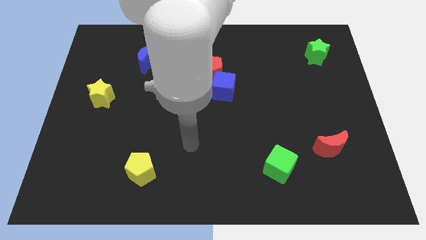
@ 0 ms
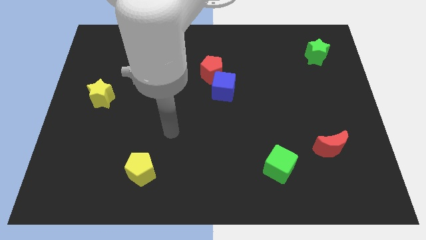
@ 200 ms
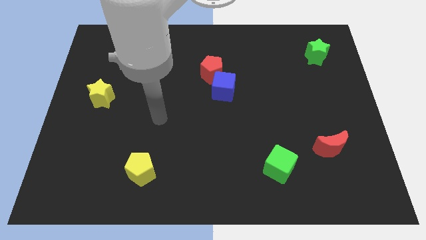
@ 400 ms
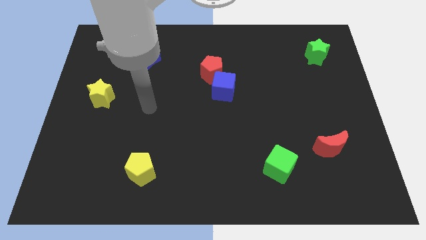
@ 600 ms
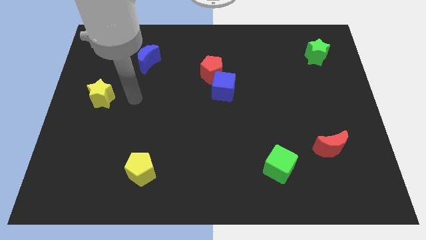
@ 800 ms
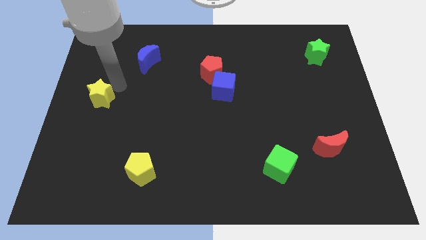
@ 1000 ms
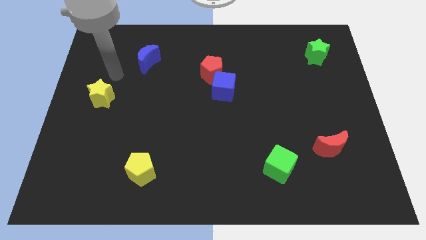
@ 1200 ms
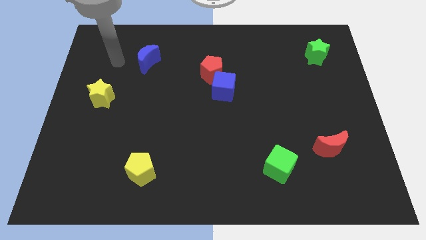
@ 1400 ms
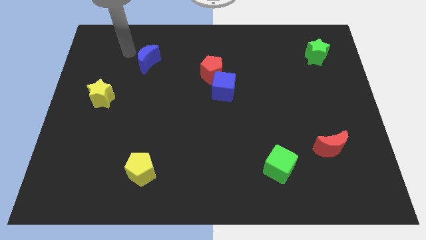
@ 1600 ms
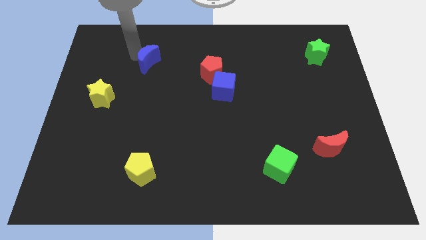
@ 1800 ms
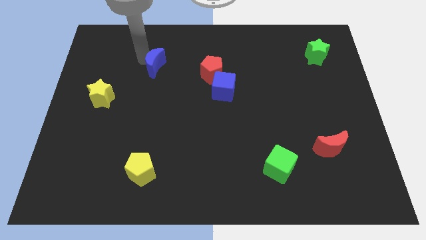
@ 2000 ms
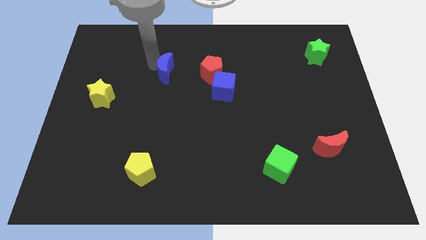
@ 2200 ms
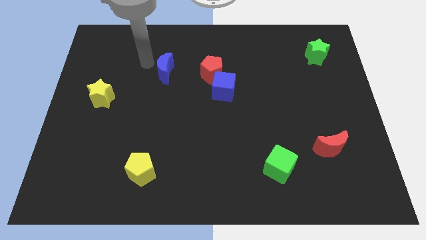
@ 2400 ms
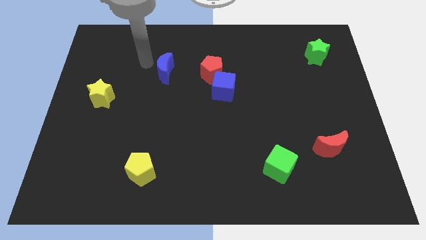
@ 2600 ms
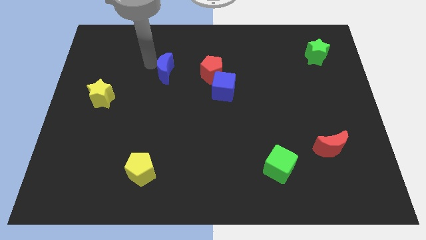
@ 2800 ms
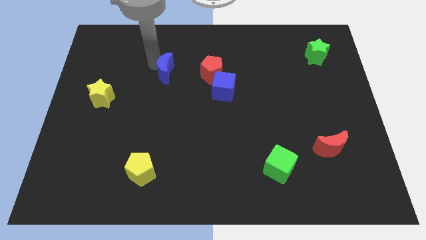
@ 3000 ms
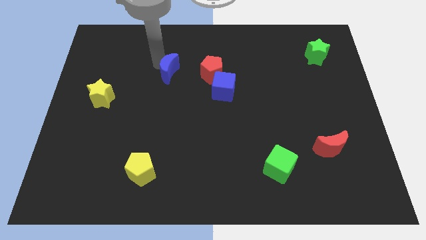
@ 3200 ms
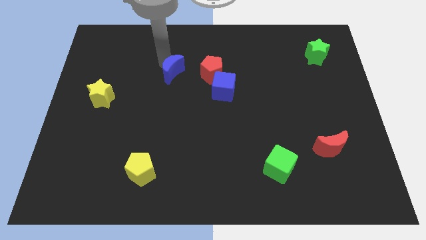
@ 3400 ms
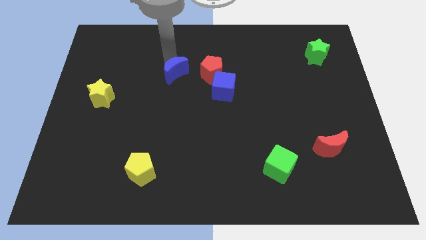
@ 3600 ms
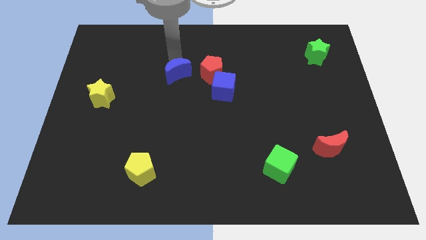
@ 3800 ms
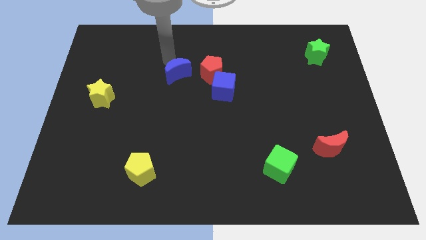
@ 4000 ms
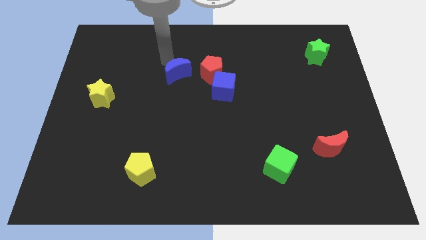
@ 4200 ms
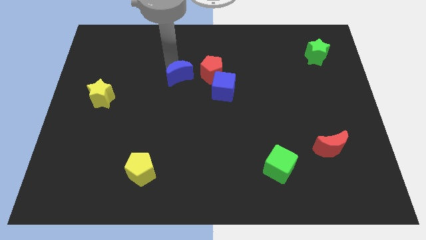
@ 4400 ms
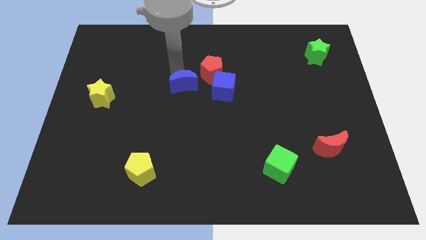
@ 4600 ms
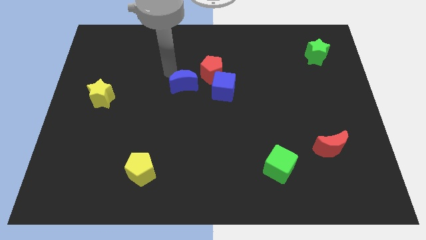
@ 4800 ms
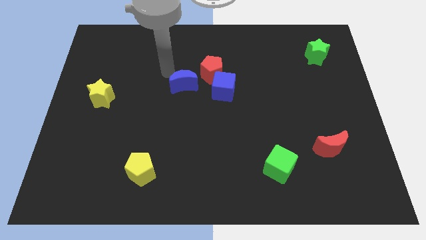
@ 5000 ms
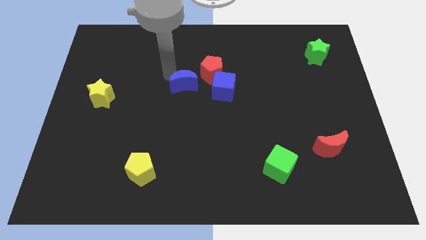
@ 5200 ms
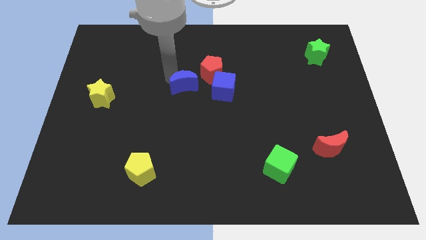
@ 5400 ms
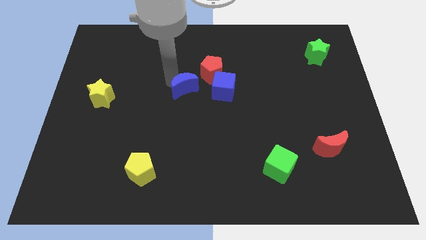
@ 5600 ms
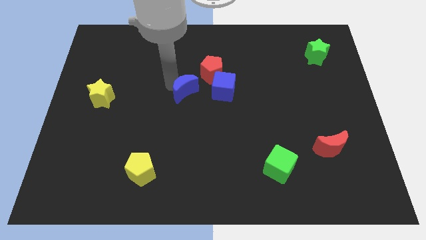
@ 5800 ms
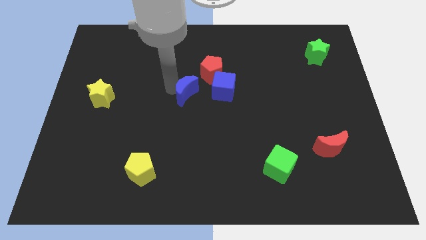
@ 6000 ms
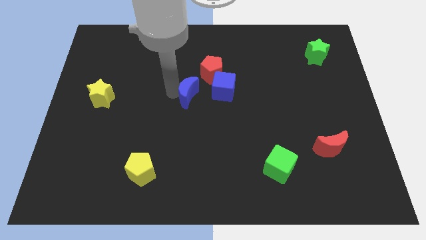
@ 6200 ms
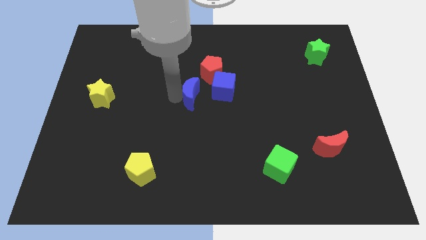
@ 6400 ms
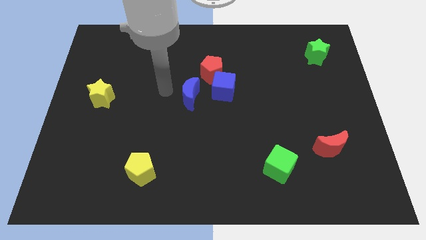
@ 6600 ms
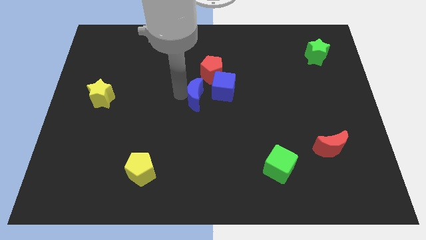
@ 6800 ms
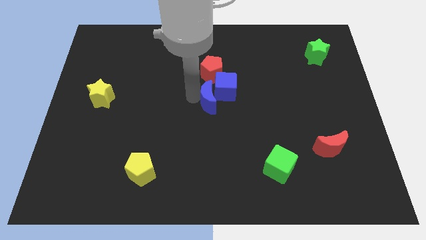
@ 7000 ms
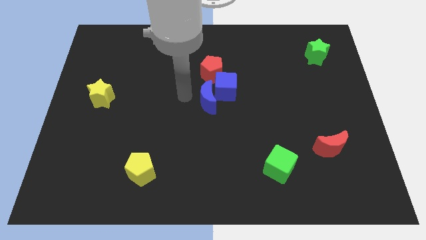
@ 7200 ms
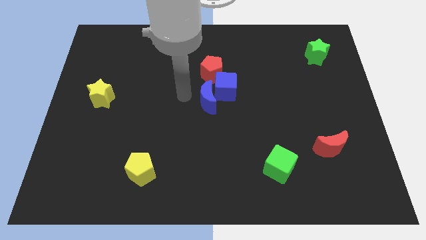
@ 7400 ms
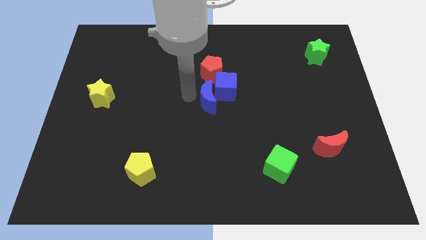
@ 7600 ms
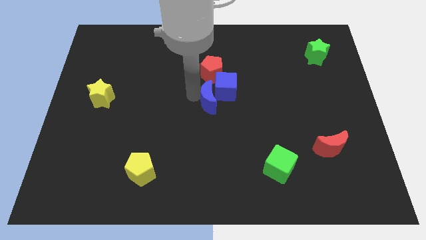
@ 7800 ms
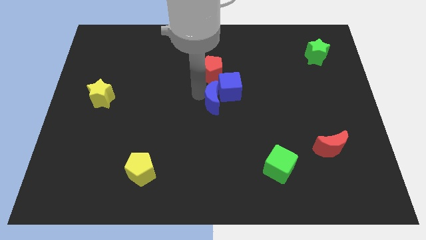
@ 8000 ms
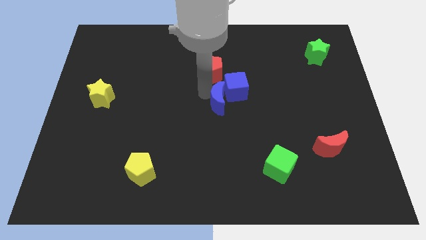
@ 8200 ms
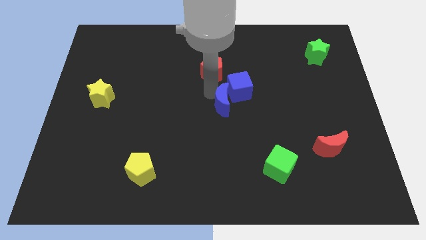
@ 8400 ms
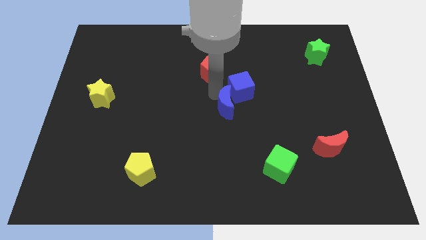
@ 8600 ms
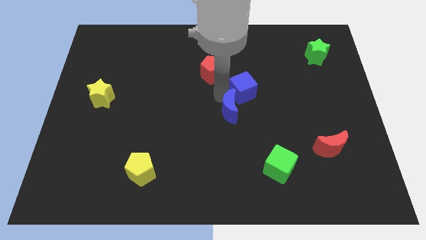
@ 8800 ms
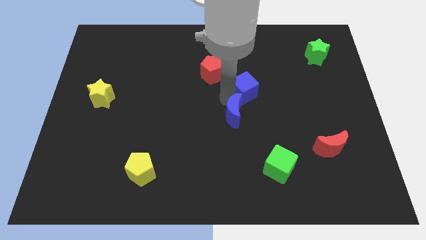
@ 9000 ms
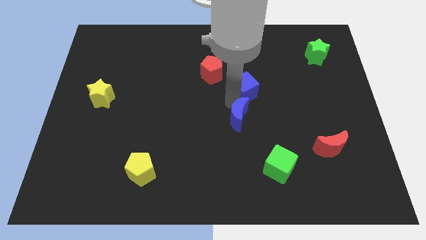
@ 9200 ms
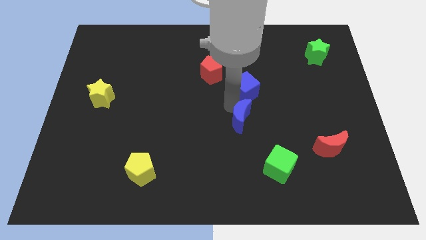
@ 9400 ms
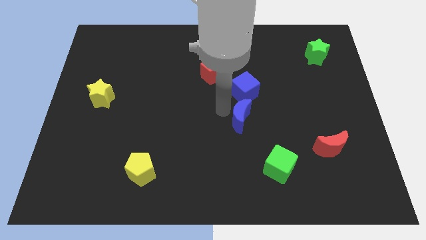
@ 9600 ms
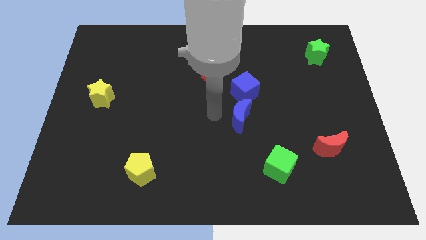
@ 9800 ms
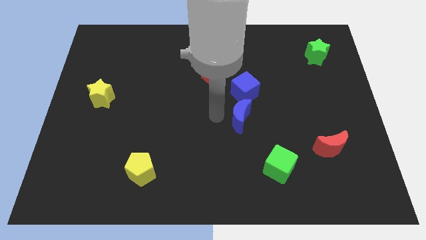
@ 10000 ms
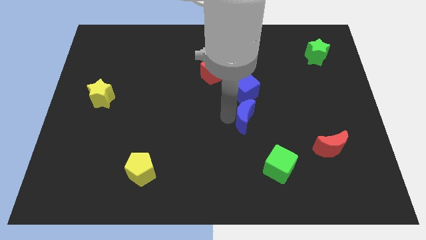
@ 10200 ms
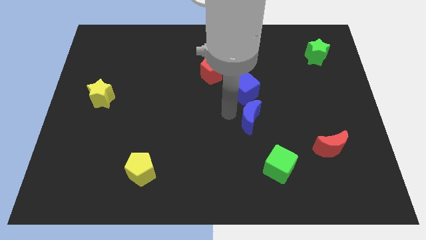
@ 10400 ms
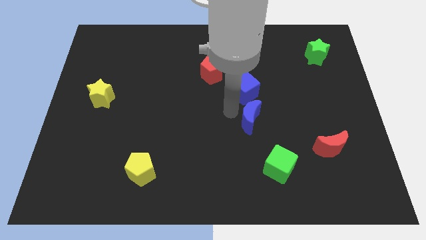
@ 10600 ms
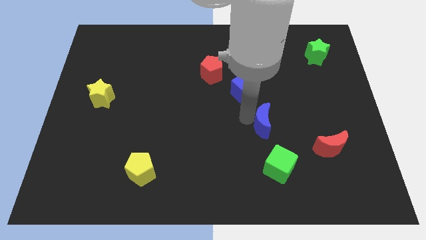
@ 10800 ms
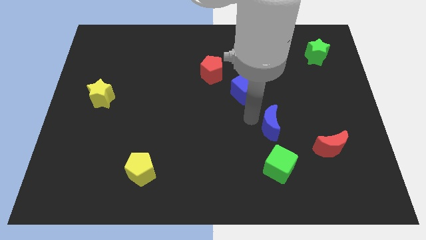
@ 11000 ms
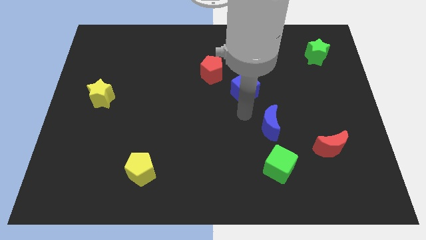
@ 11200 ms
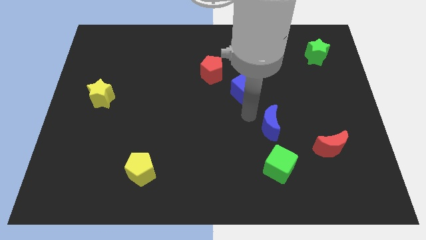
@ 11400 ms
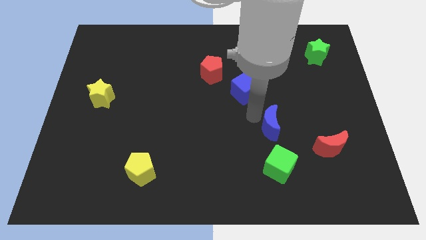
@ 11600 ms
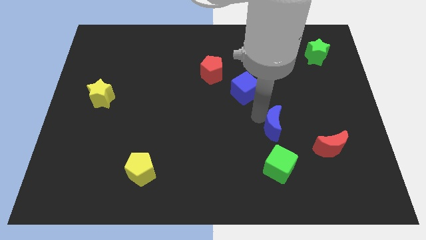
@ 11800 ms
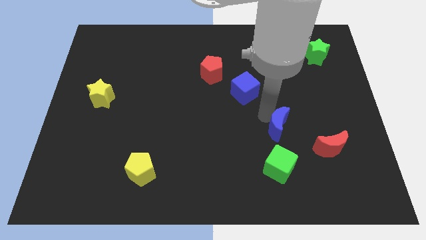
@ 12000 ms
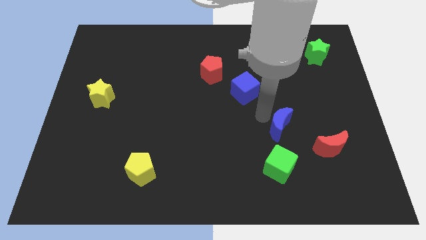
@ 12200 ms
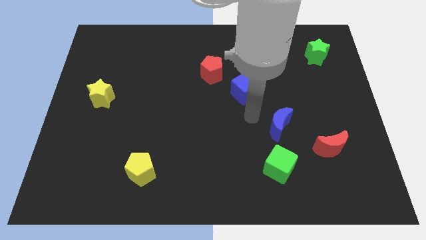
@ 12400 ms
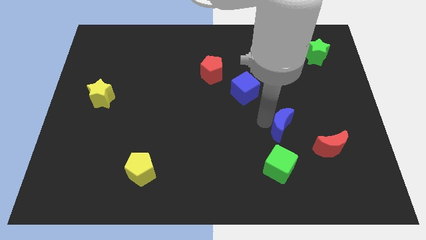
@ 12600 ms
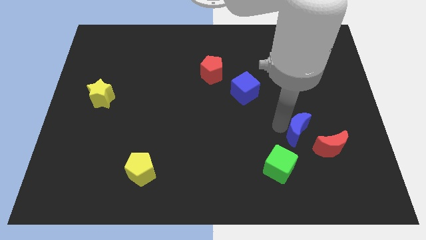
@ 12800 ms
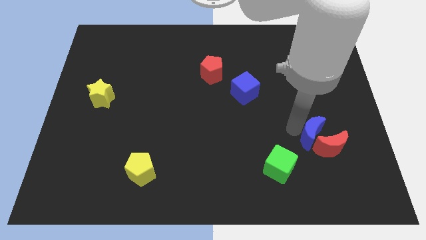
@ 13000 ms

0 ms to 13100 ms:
push the blue moon close to the red moon

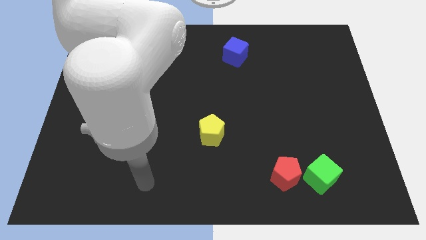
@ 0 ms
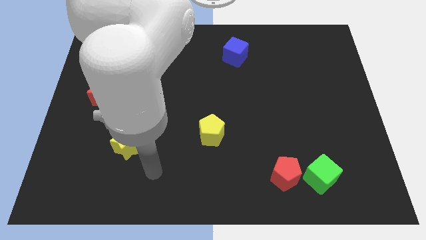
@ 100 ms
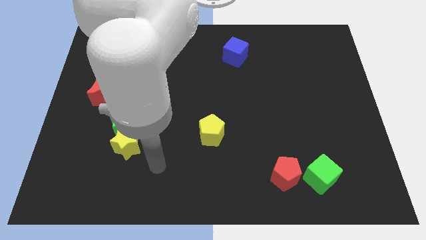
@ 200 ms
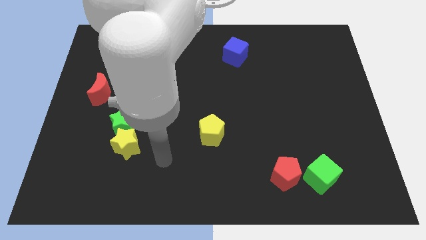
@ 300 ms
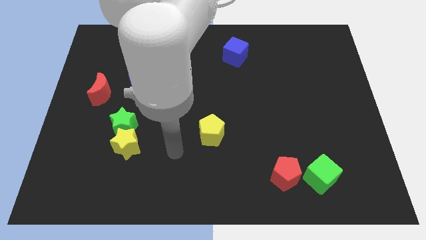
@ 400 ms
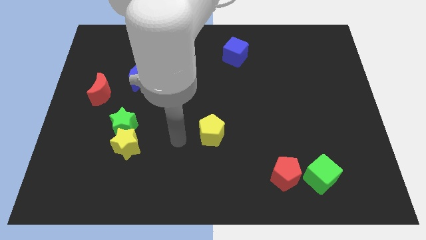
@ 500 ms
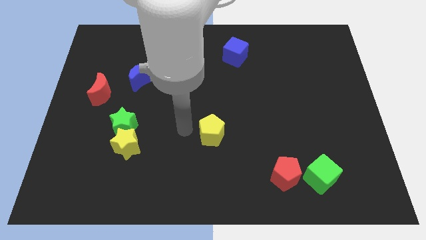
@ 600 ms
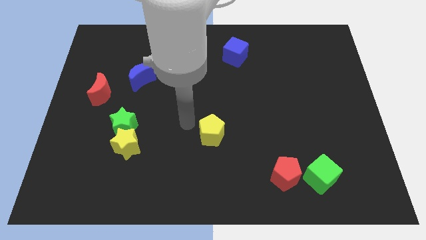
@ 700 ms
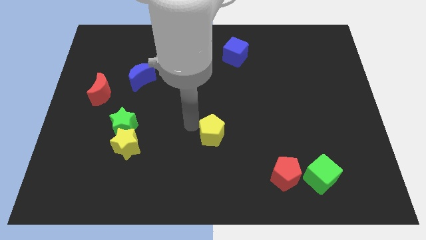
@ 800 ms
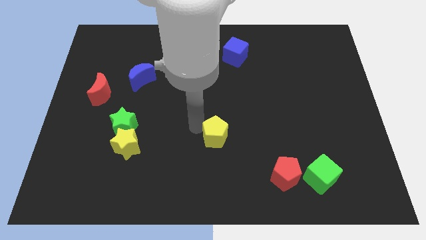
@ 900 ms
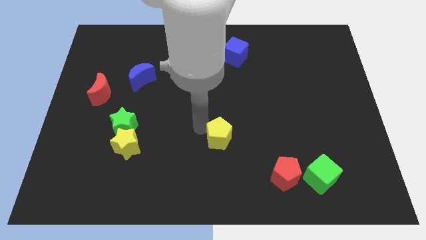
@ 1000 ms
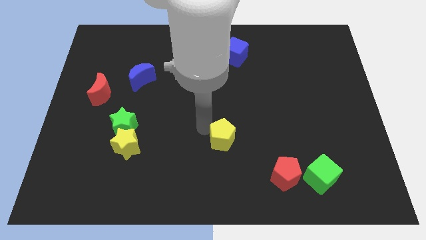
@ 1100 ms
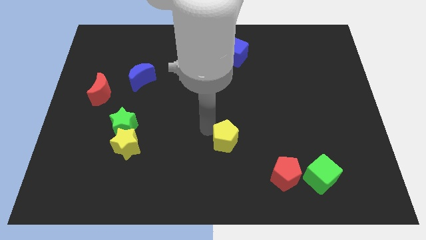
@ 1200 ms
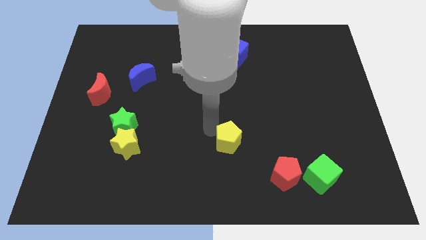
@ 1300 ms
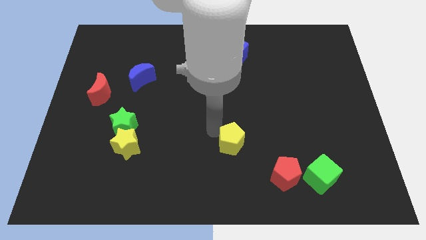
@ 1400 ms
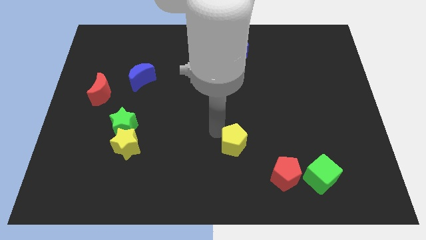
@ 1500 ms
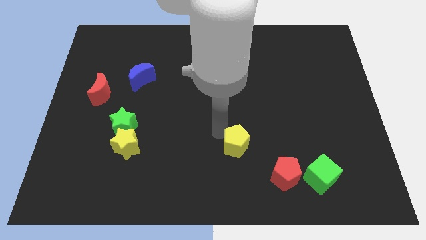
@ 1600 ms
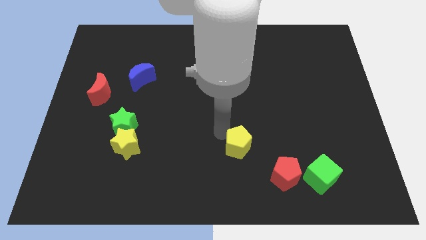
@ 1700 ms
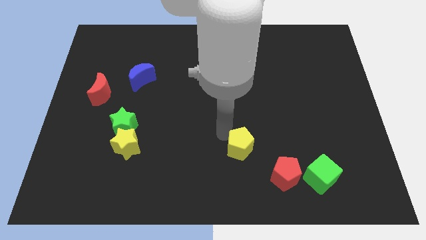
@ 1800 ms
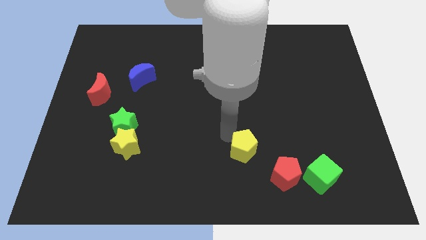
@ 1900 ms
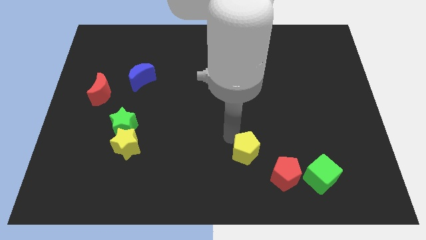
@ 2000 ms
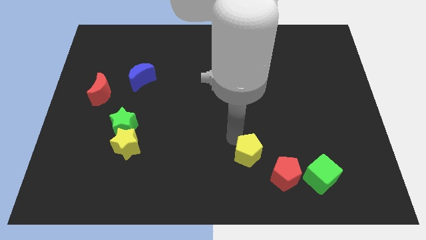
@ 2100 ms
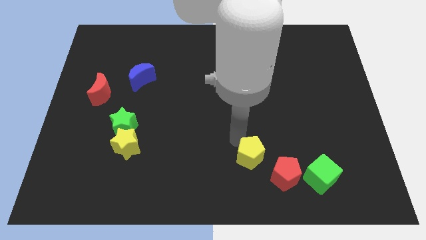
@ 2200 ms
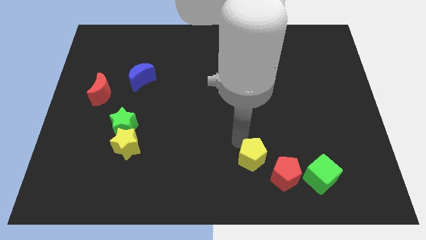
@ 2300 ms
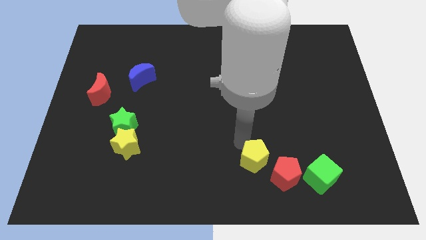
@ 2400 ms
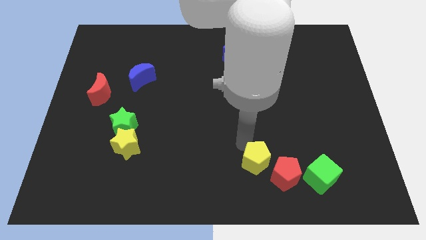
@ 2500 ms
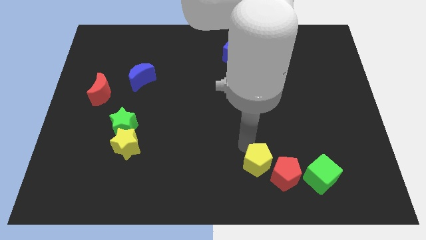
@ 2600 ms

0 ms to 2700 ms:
move the yellow pentagon towards the red pentagon
